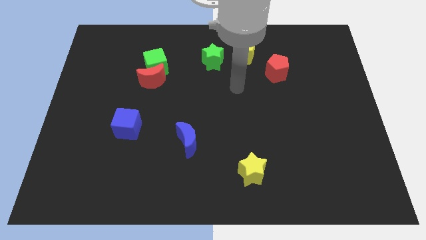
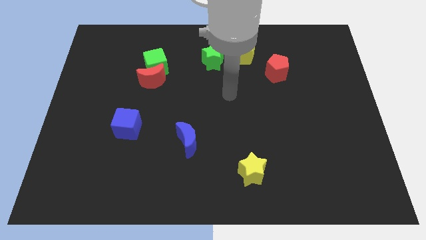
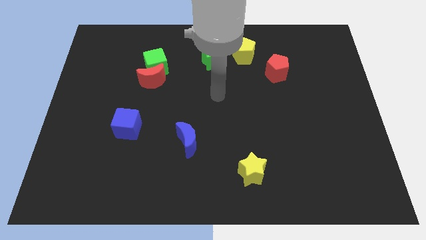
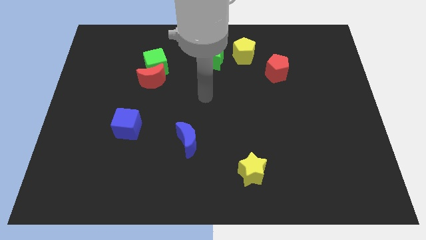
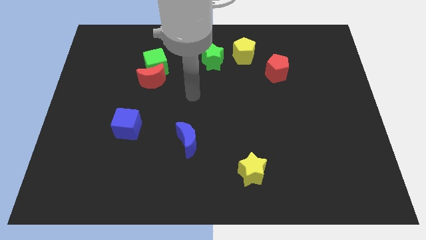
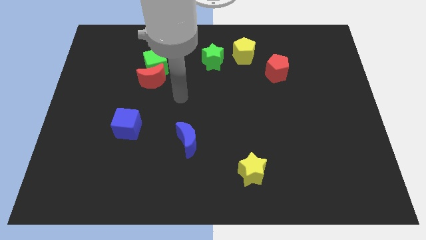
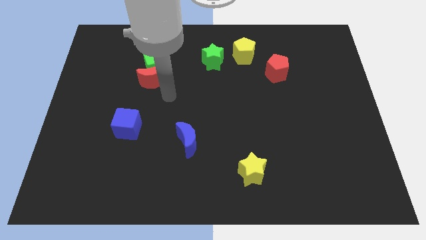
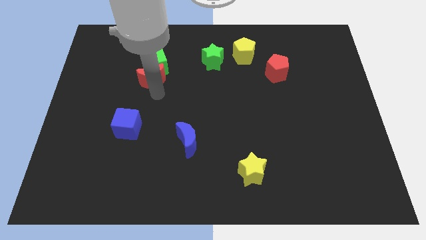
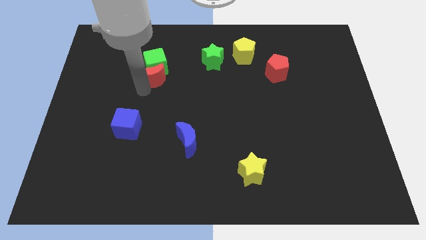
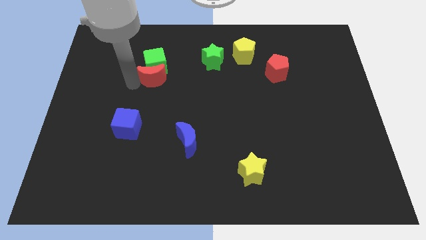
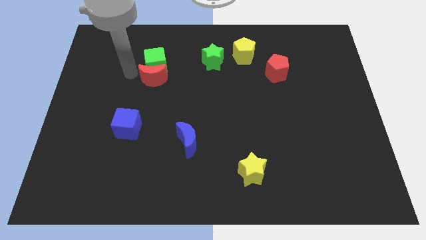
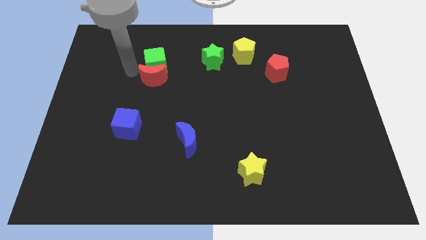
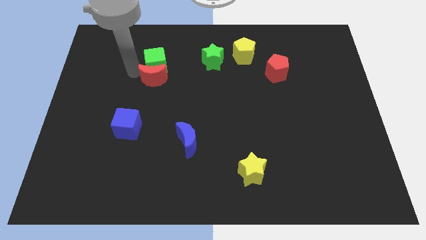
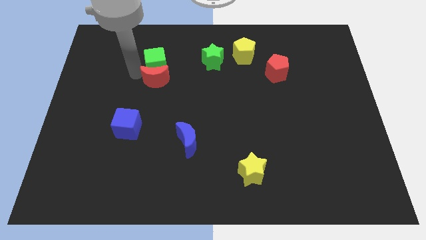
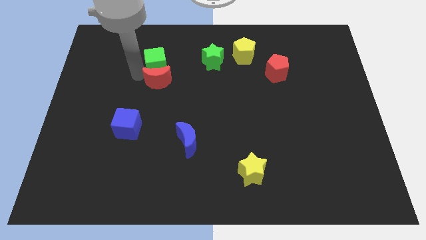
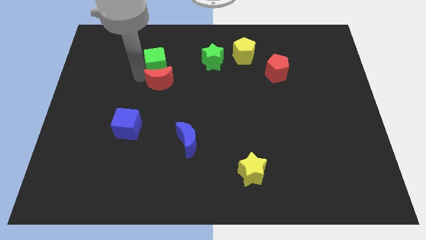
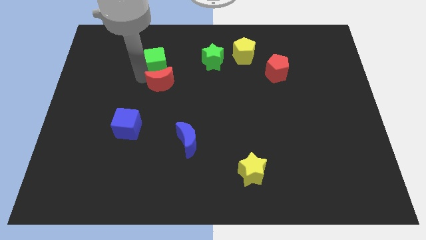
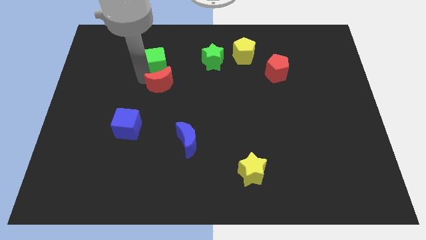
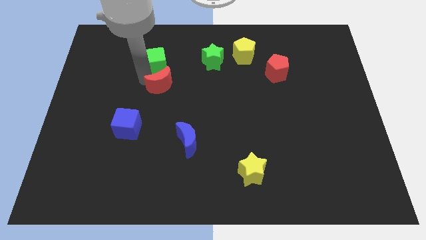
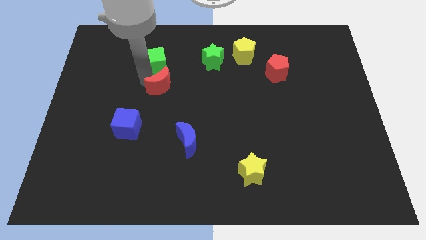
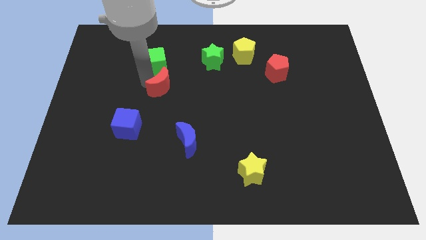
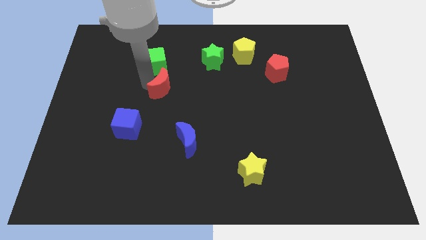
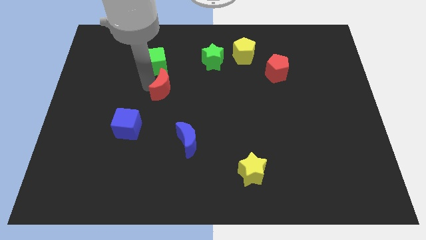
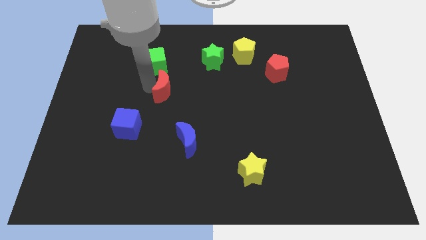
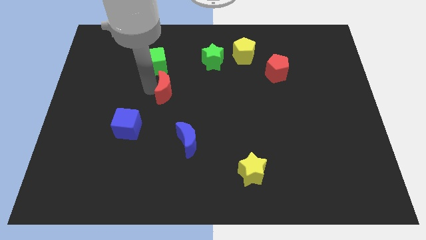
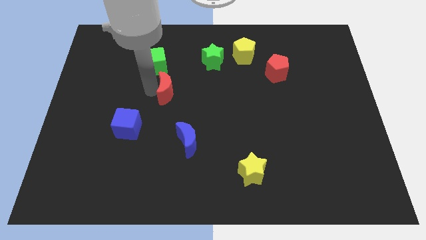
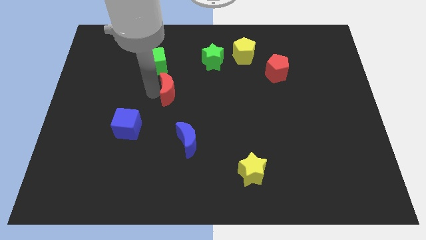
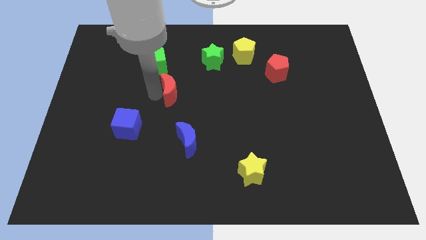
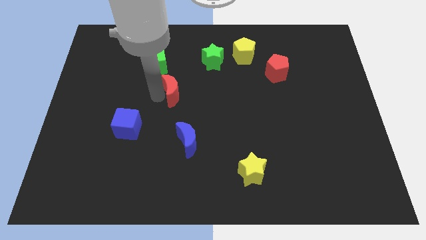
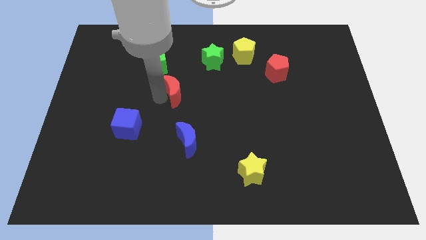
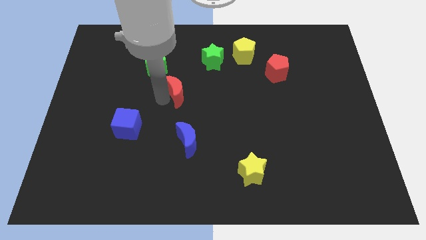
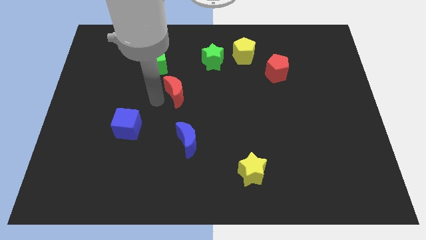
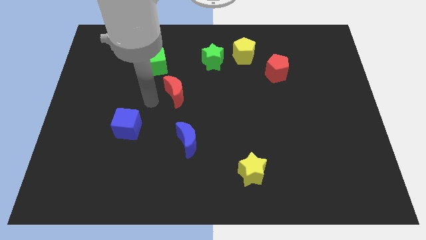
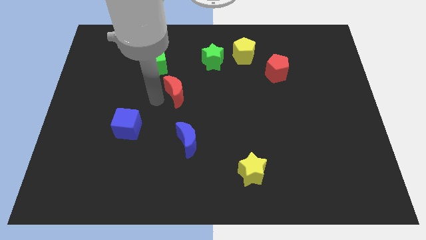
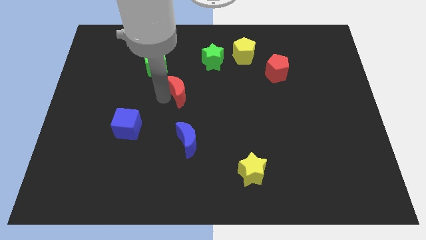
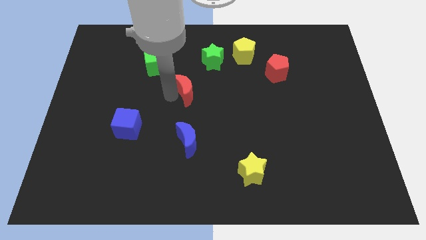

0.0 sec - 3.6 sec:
slightly push the red moon to the right

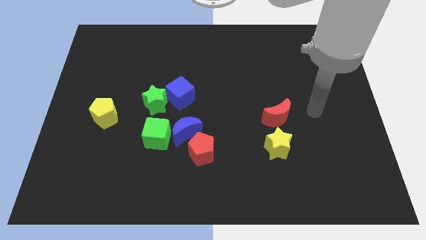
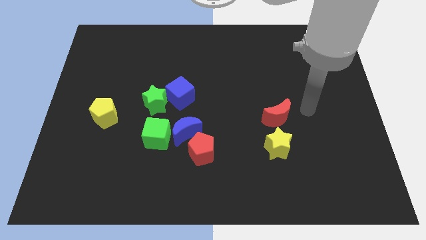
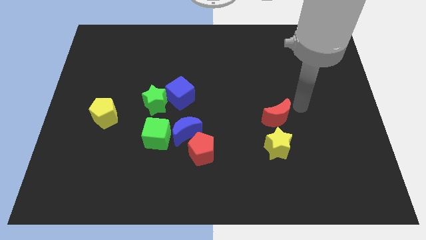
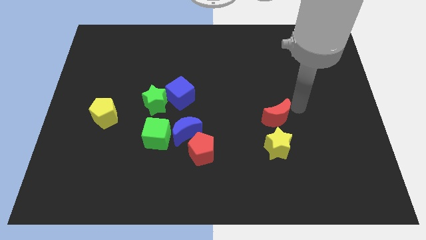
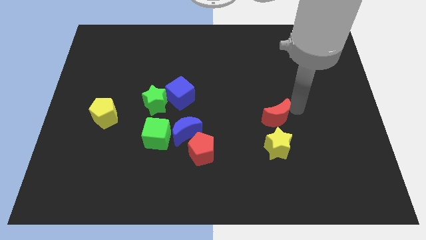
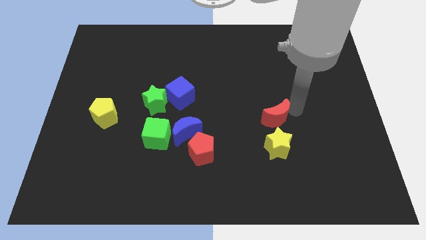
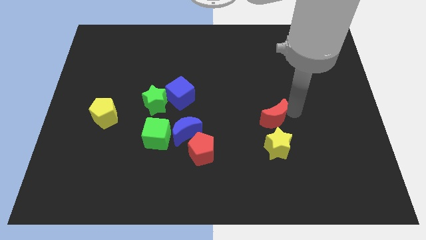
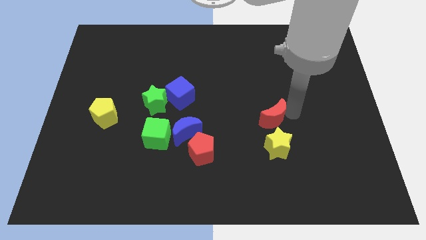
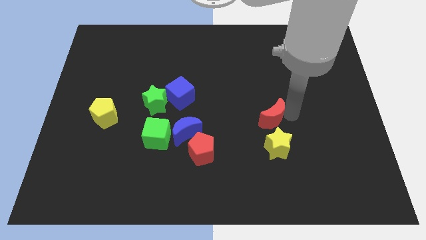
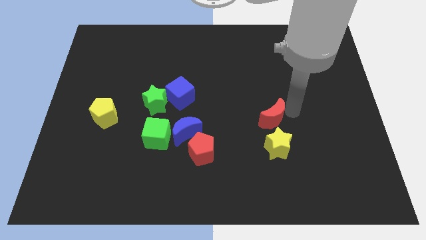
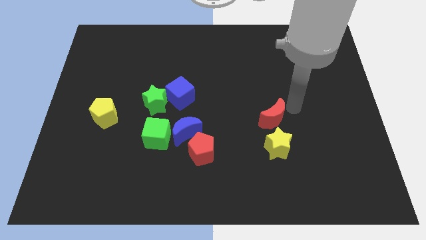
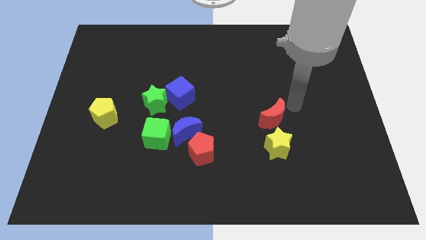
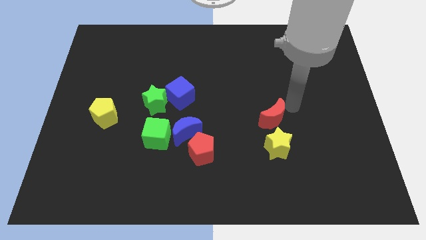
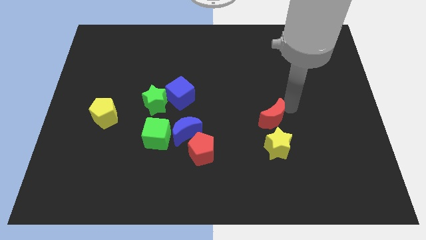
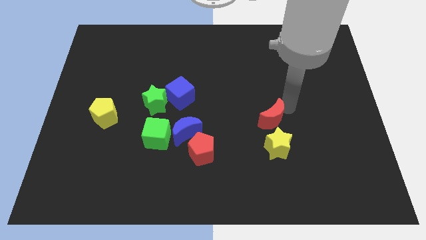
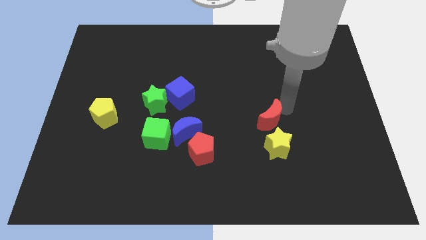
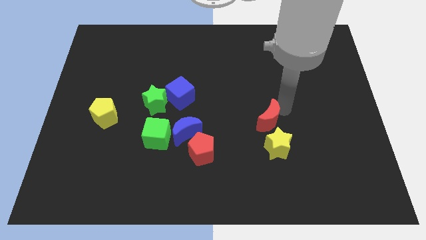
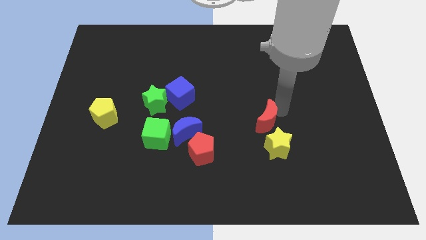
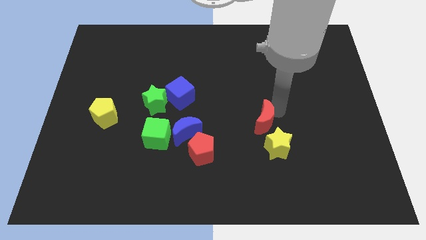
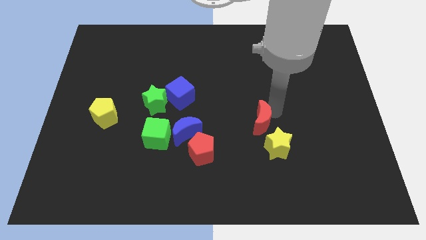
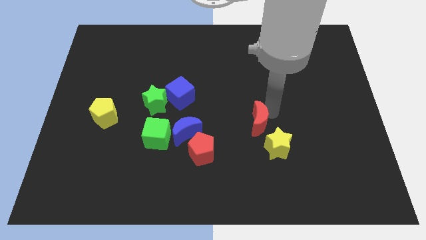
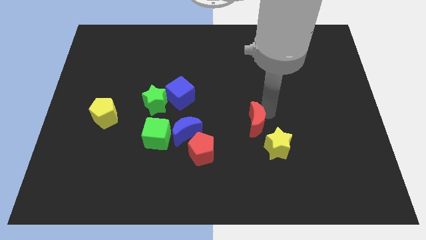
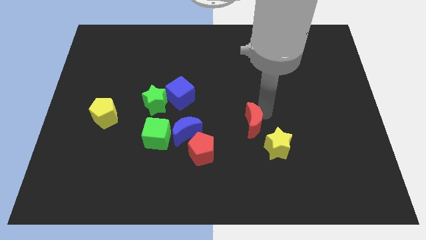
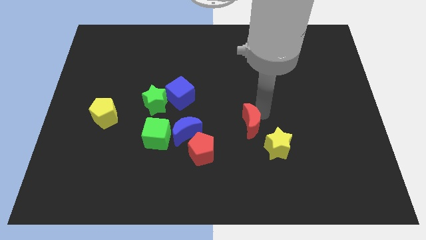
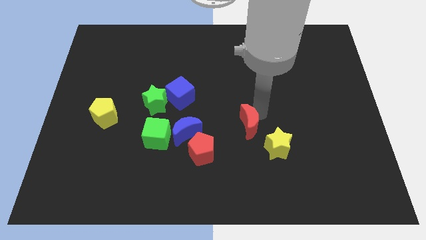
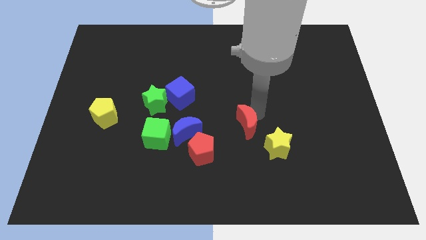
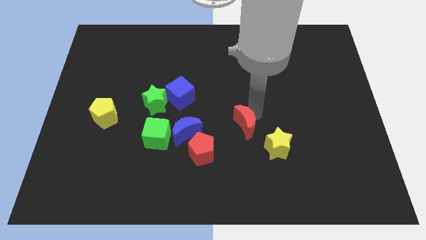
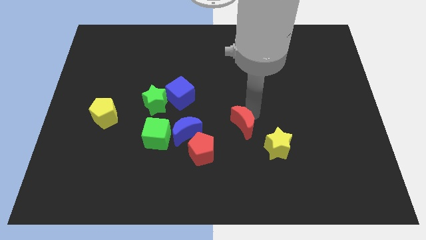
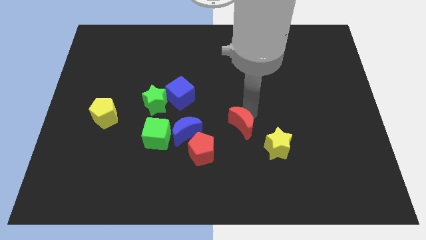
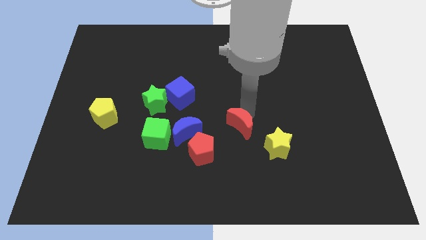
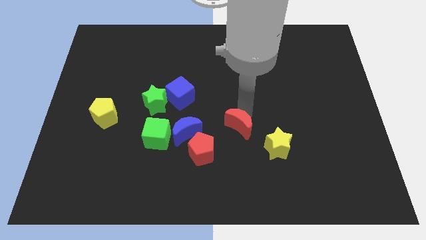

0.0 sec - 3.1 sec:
move the red moon slightly down and then to the left

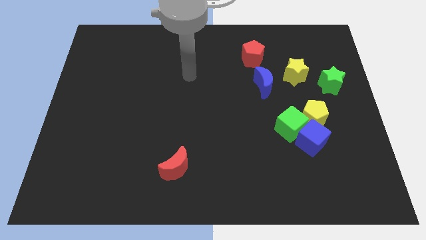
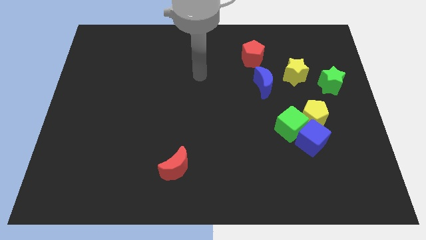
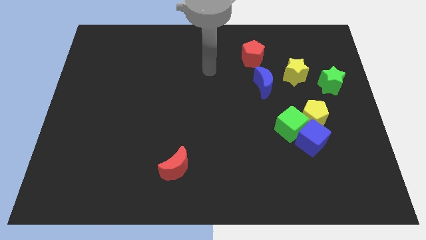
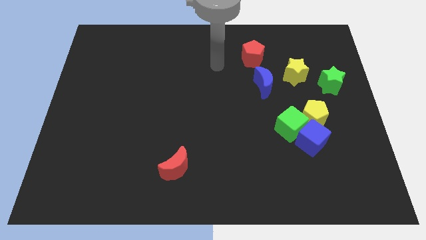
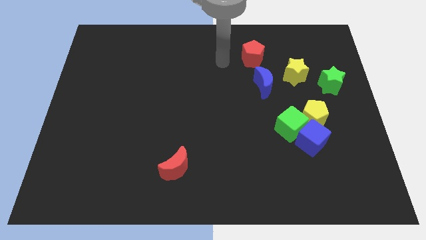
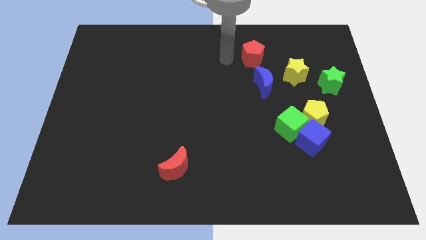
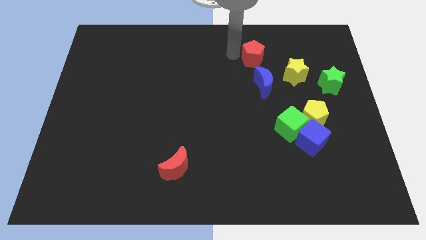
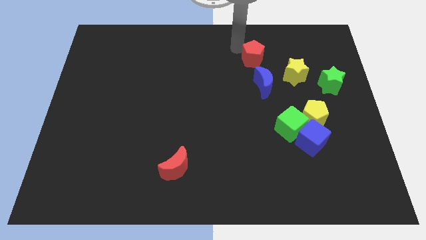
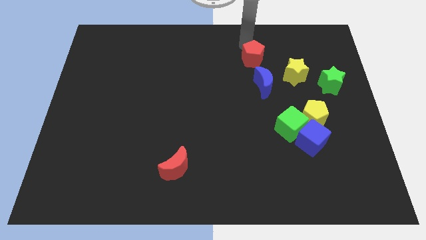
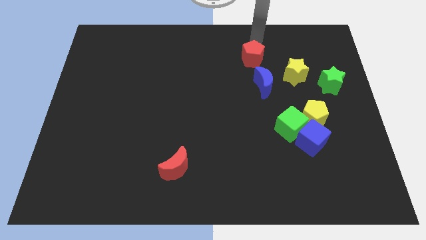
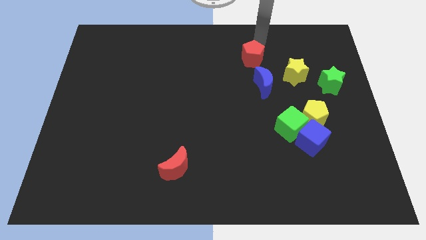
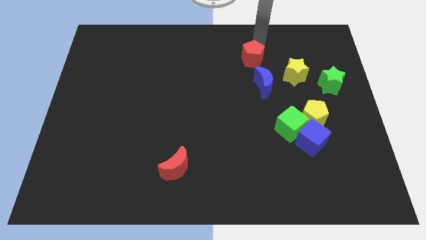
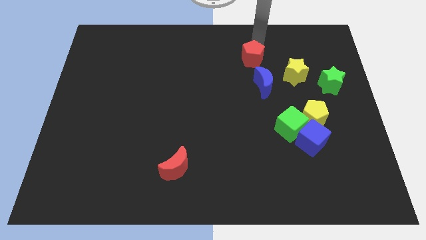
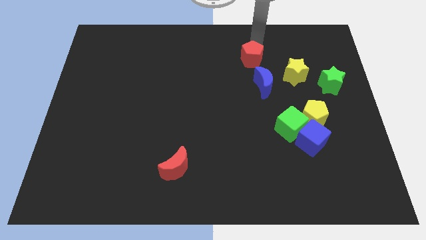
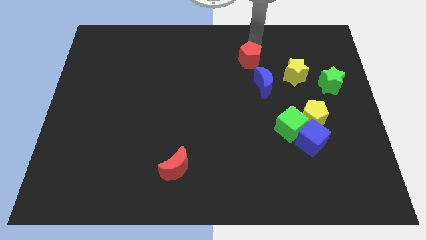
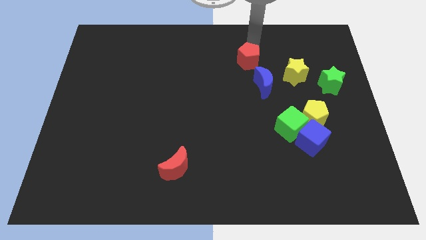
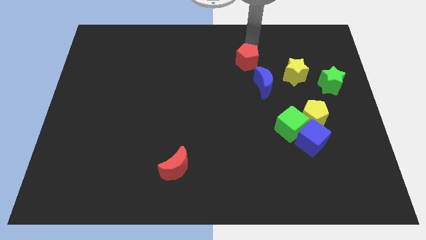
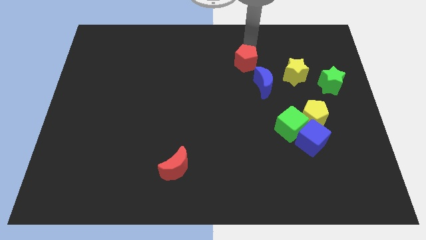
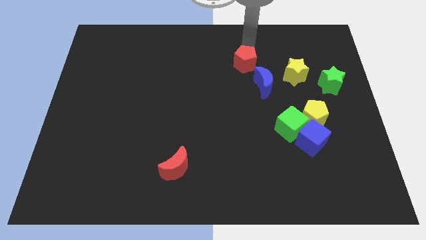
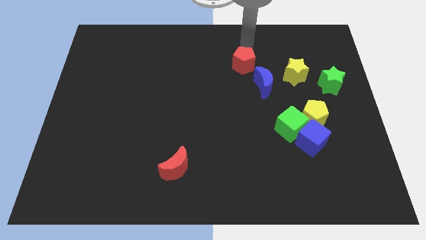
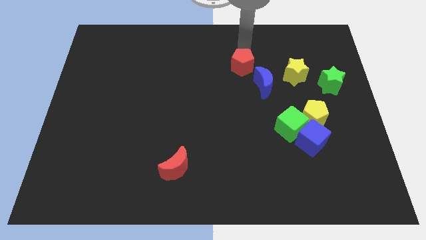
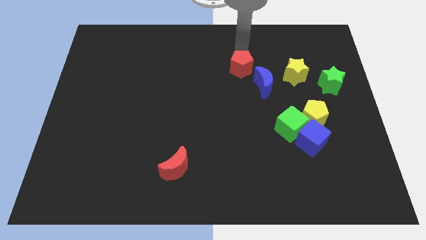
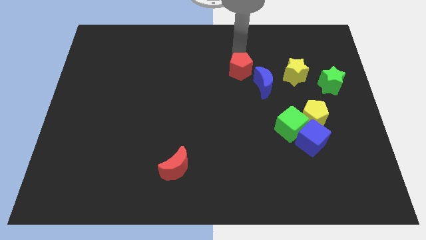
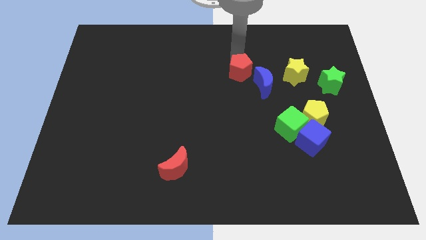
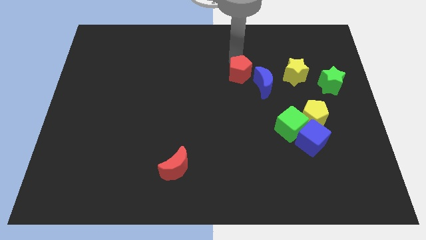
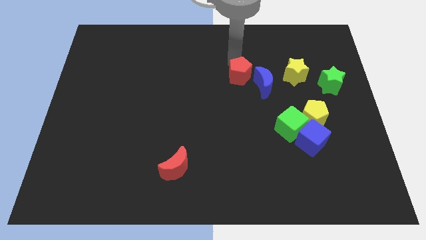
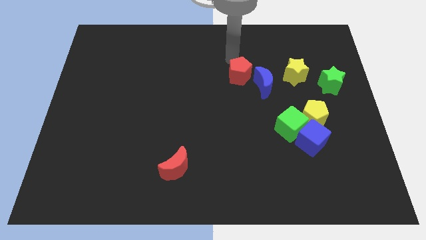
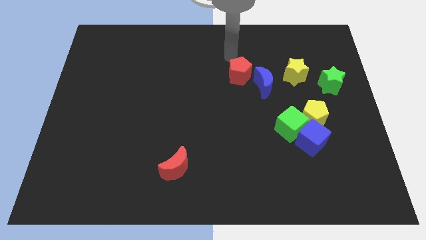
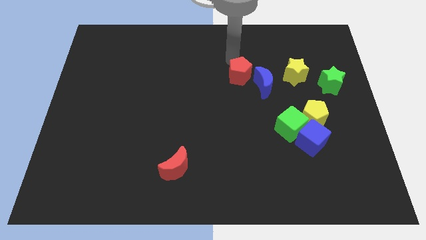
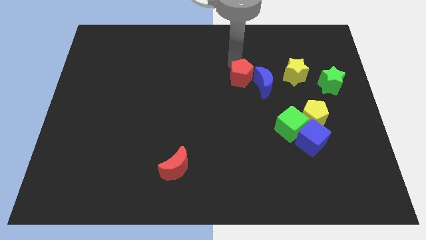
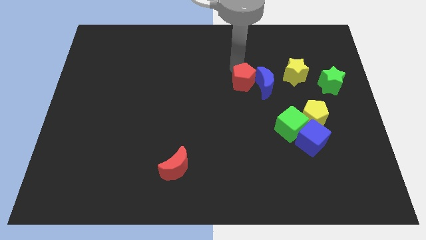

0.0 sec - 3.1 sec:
slide the red pentagon downwards a little bit
